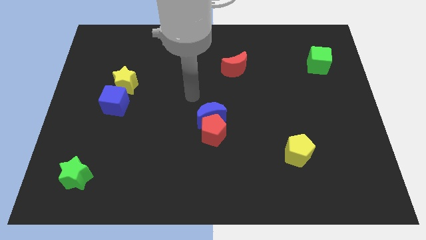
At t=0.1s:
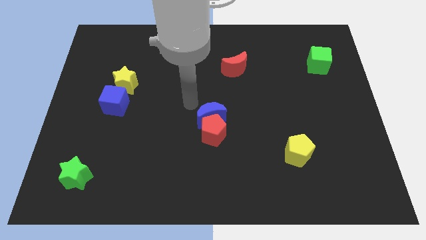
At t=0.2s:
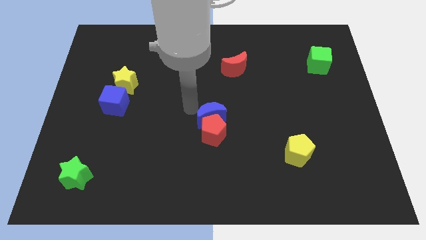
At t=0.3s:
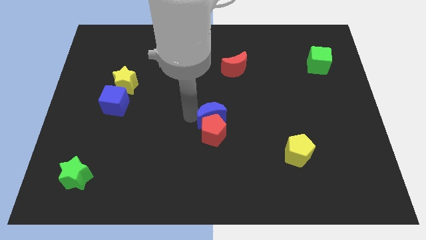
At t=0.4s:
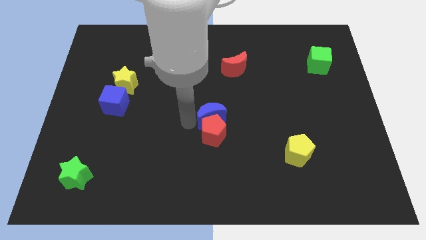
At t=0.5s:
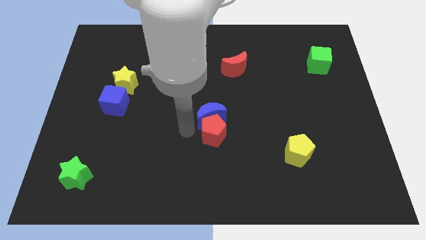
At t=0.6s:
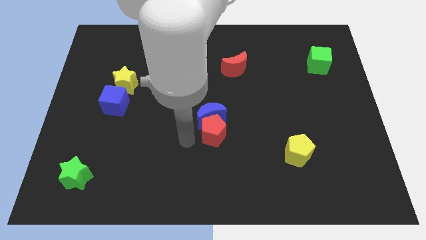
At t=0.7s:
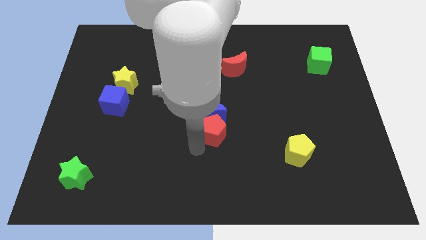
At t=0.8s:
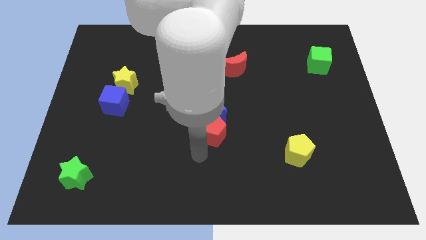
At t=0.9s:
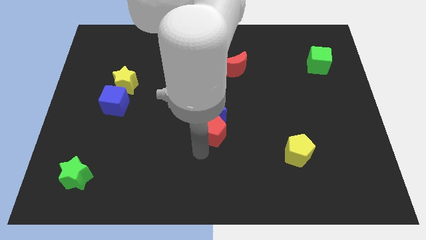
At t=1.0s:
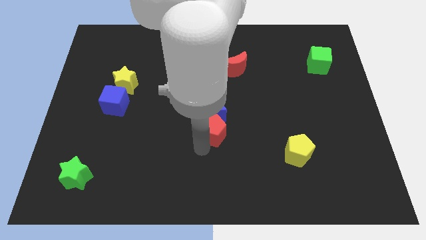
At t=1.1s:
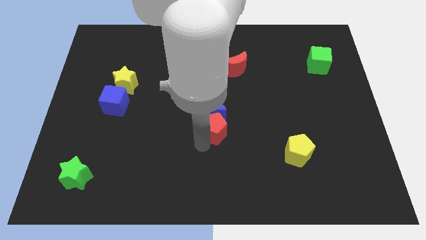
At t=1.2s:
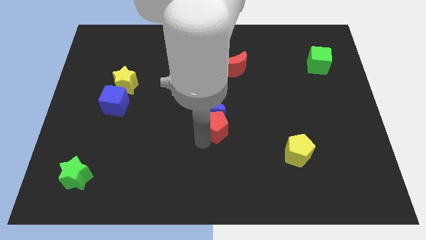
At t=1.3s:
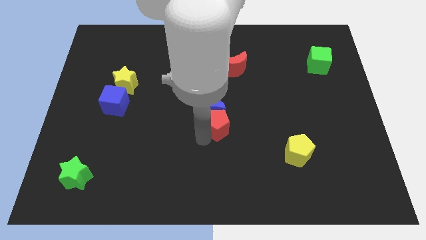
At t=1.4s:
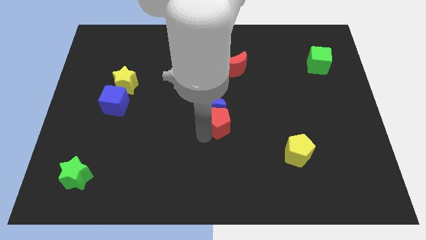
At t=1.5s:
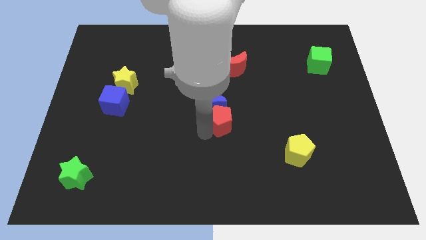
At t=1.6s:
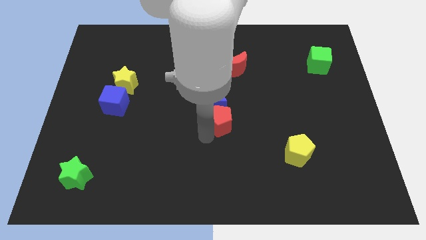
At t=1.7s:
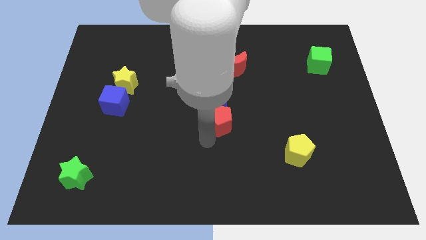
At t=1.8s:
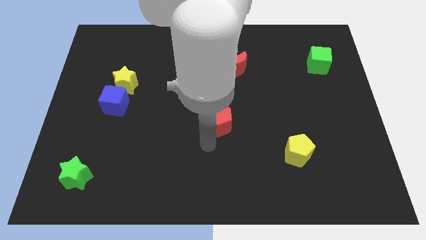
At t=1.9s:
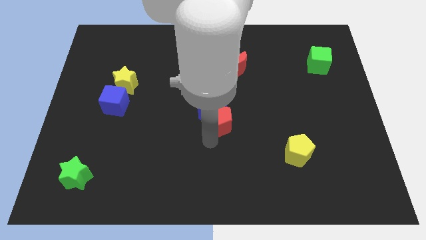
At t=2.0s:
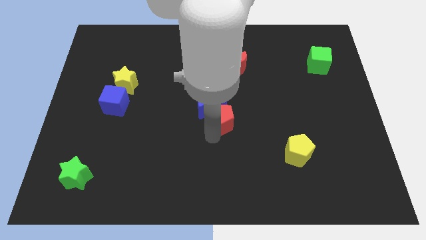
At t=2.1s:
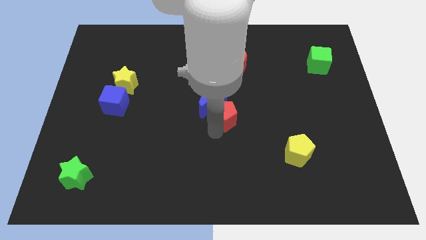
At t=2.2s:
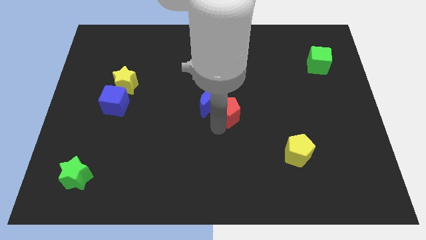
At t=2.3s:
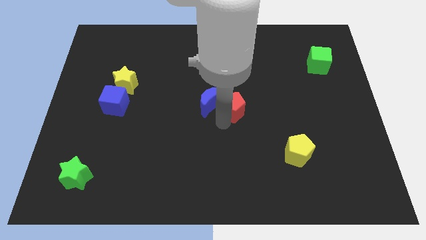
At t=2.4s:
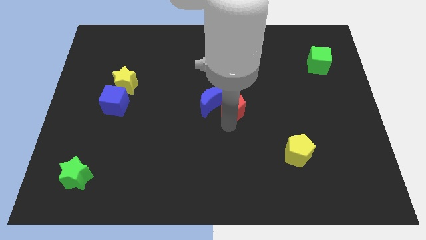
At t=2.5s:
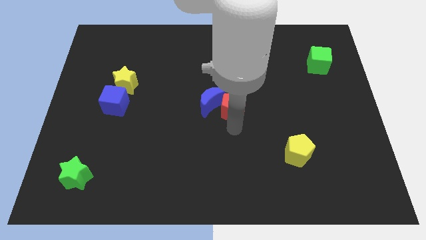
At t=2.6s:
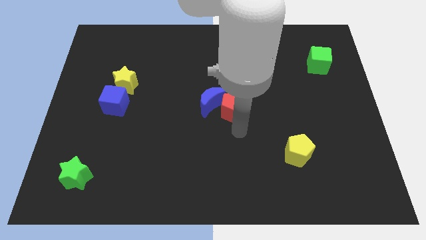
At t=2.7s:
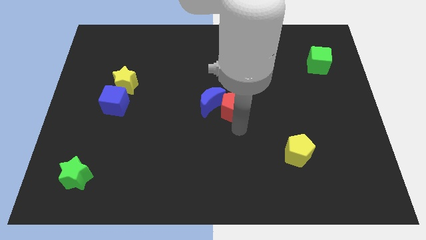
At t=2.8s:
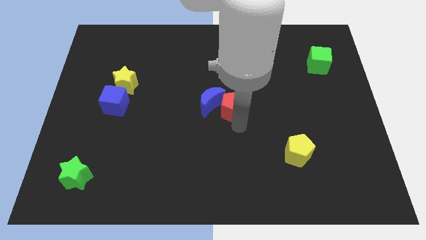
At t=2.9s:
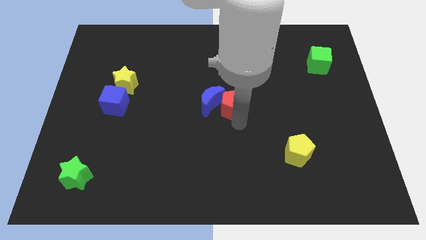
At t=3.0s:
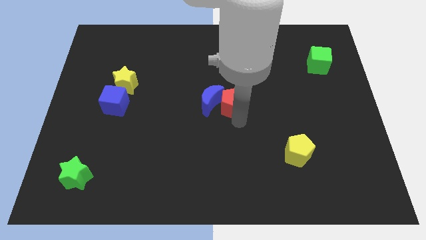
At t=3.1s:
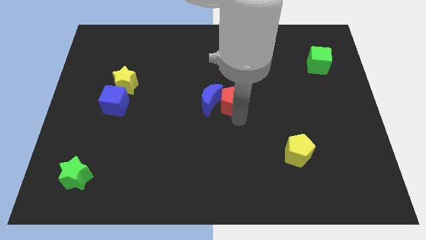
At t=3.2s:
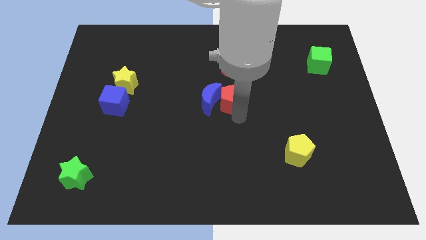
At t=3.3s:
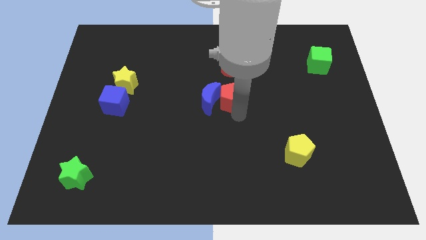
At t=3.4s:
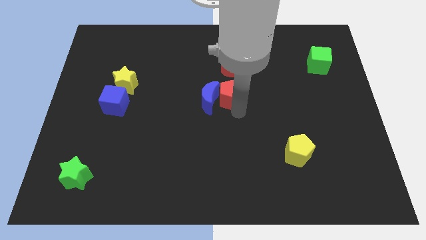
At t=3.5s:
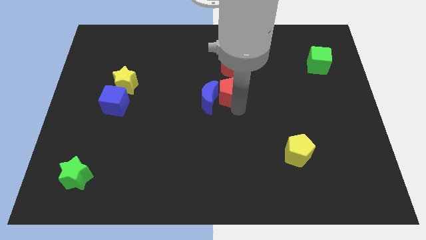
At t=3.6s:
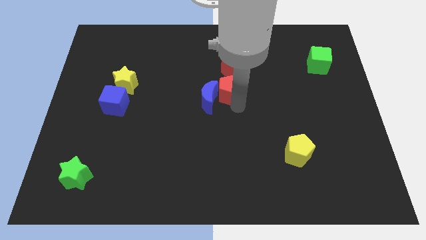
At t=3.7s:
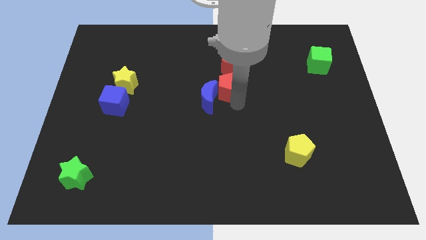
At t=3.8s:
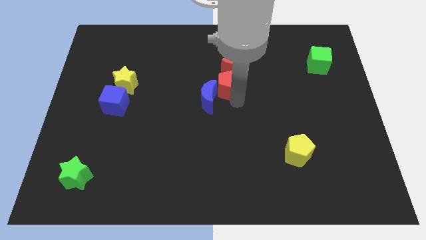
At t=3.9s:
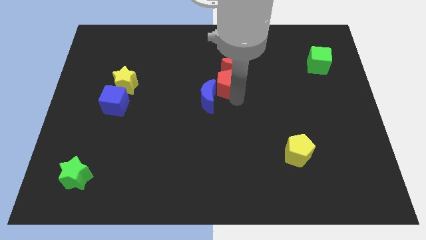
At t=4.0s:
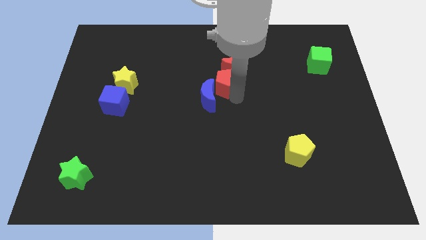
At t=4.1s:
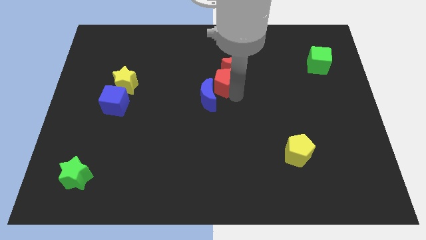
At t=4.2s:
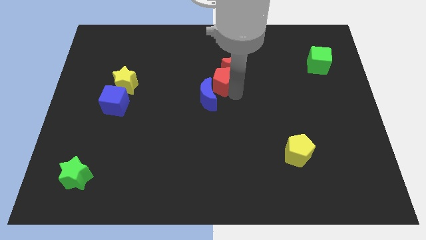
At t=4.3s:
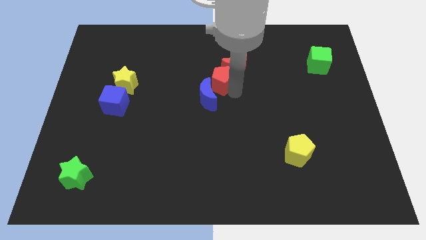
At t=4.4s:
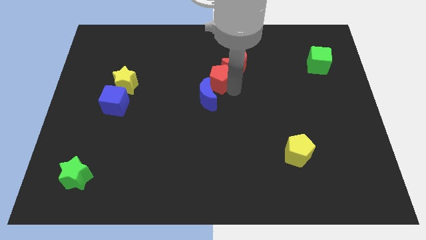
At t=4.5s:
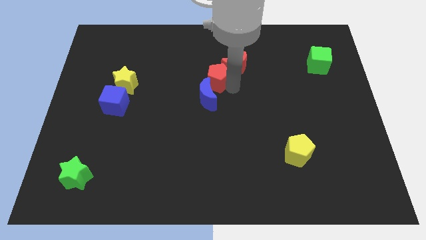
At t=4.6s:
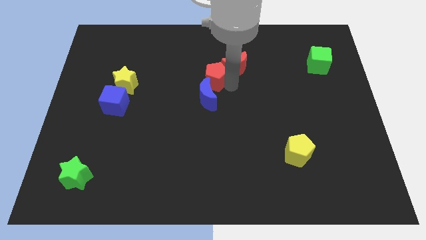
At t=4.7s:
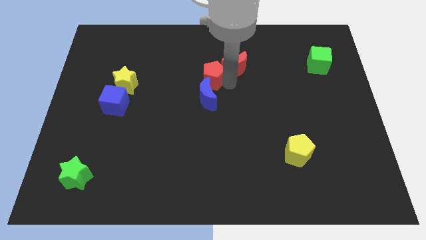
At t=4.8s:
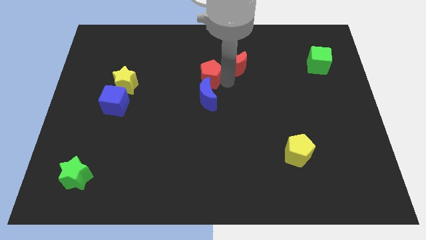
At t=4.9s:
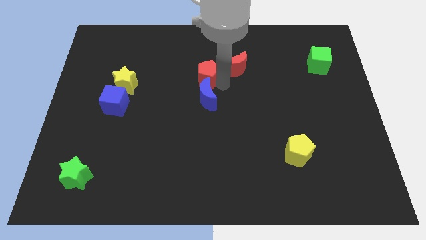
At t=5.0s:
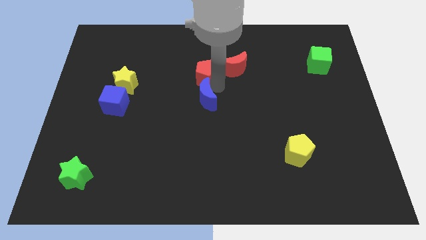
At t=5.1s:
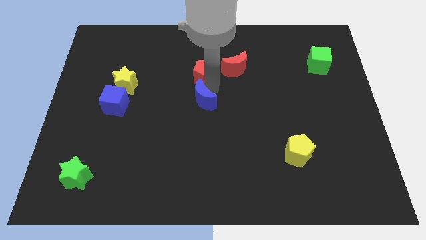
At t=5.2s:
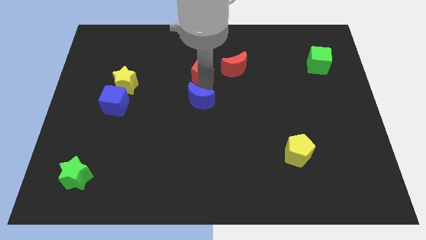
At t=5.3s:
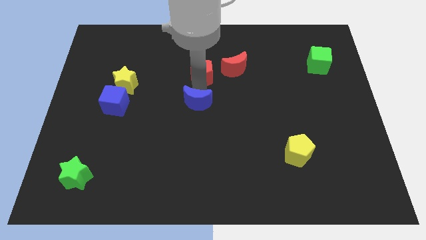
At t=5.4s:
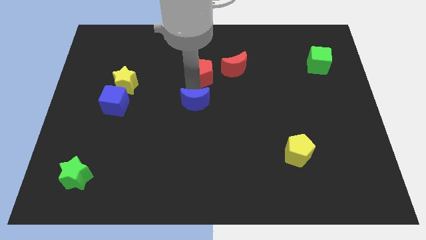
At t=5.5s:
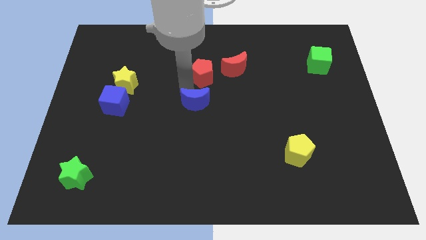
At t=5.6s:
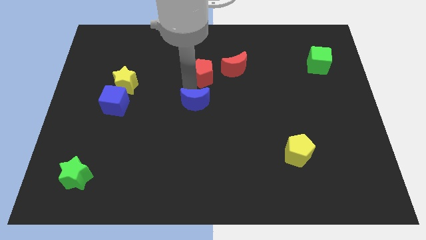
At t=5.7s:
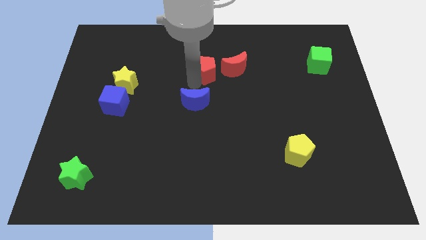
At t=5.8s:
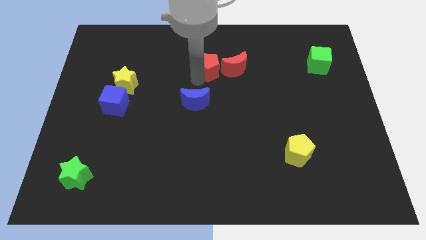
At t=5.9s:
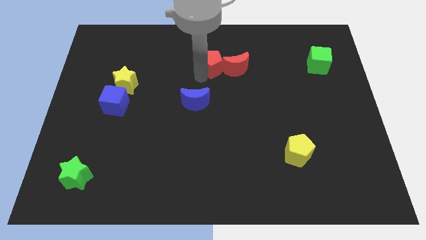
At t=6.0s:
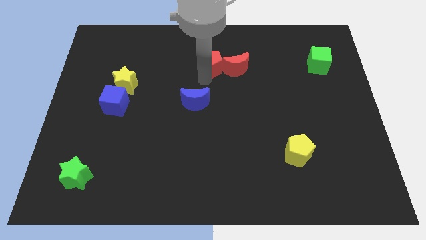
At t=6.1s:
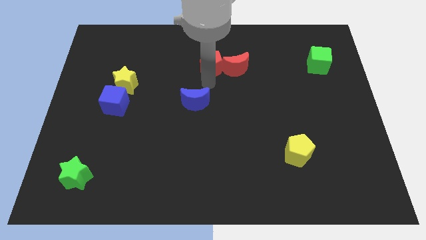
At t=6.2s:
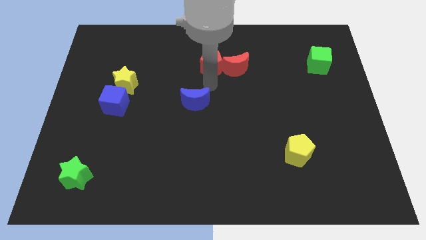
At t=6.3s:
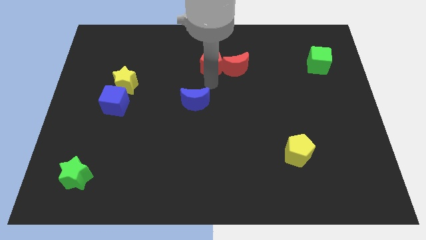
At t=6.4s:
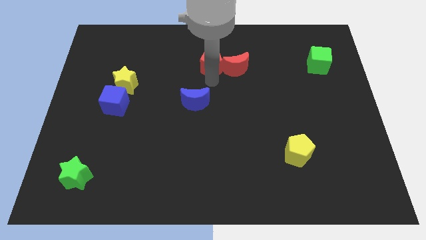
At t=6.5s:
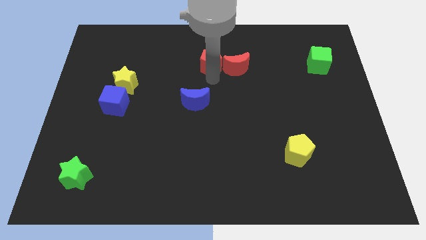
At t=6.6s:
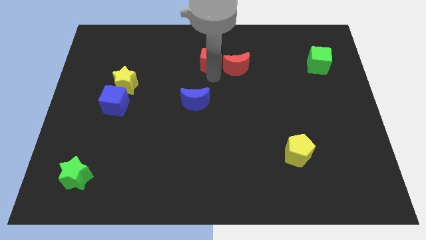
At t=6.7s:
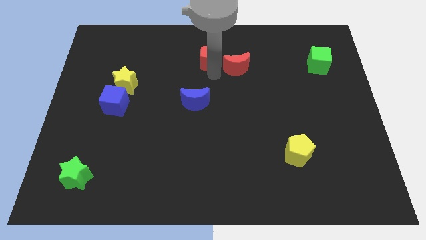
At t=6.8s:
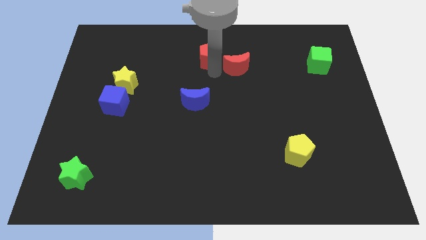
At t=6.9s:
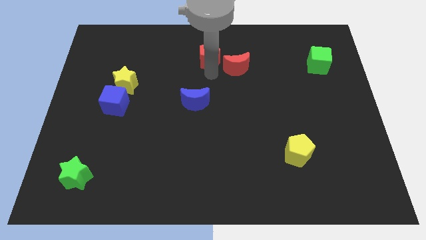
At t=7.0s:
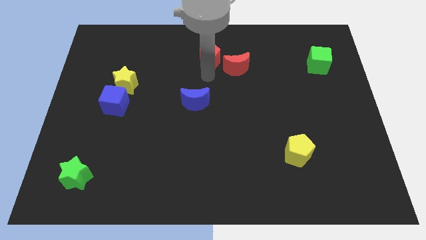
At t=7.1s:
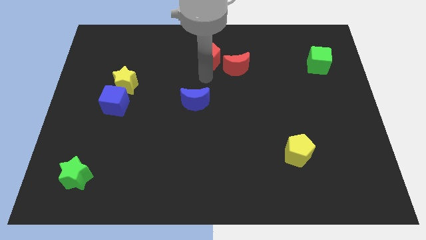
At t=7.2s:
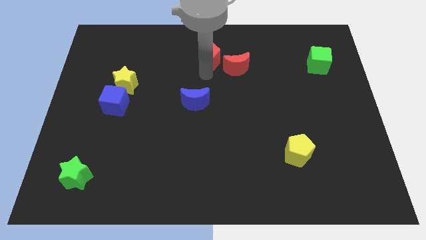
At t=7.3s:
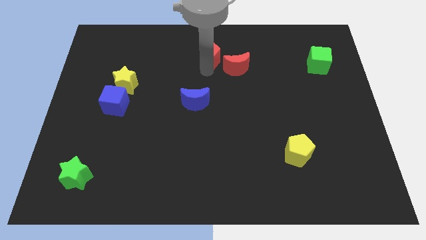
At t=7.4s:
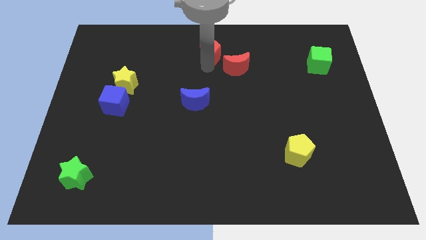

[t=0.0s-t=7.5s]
put the red pentagon to the top
